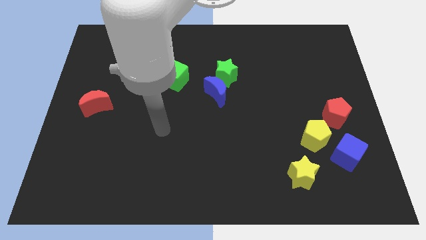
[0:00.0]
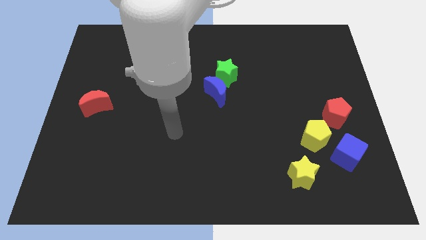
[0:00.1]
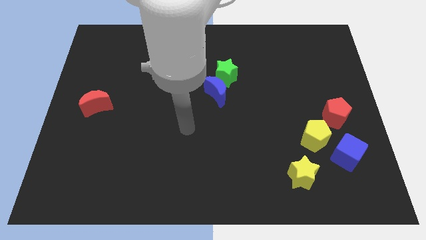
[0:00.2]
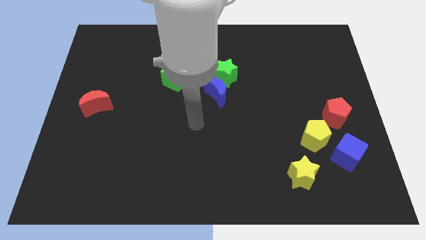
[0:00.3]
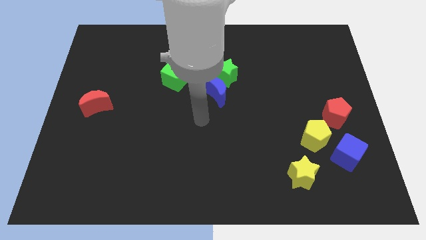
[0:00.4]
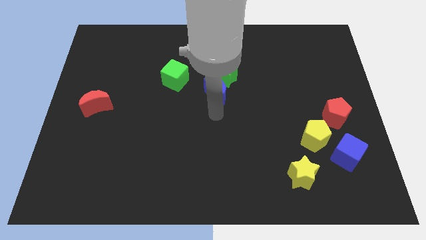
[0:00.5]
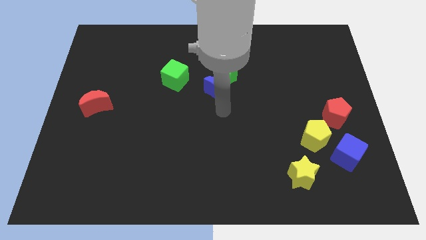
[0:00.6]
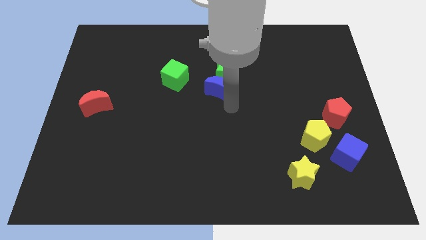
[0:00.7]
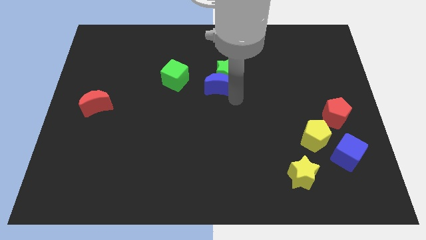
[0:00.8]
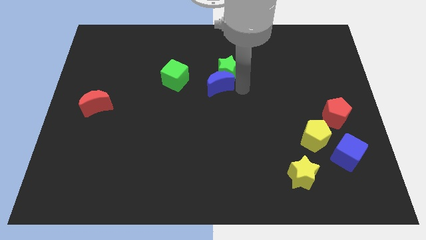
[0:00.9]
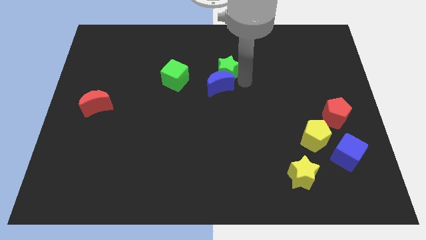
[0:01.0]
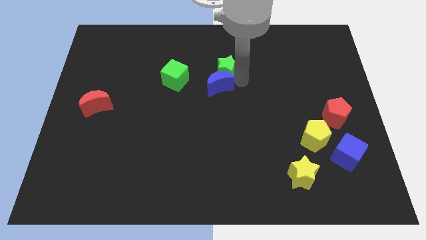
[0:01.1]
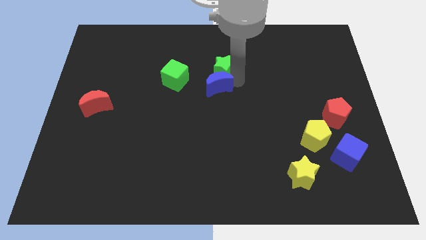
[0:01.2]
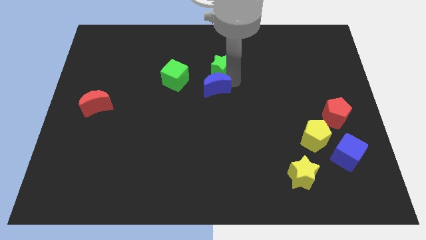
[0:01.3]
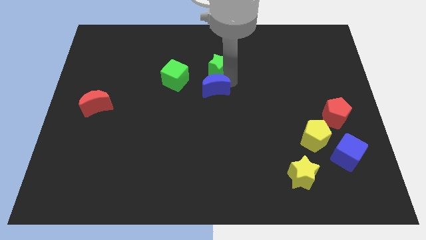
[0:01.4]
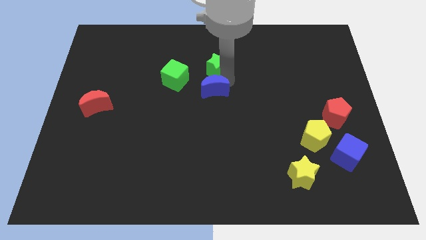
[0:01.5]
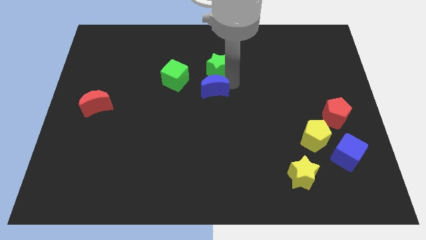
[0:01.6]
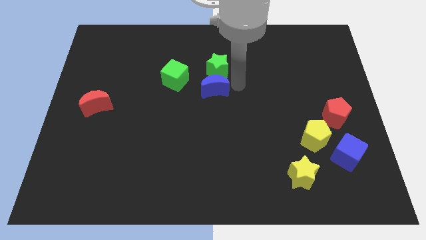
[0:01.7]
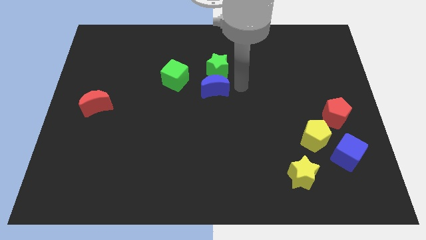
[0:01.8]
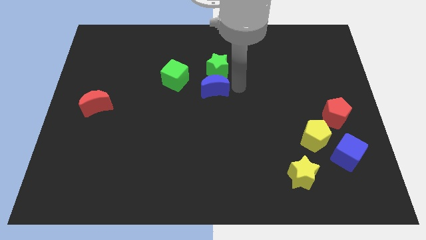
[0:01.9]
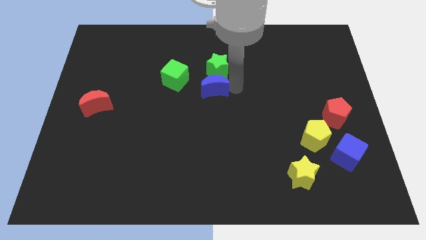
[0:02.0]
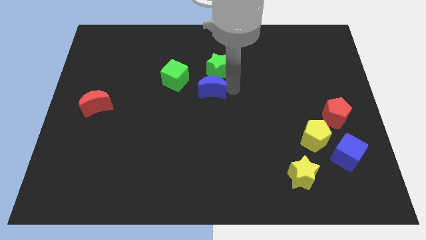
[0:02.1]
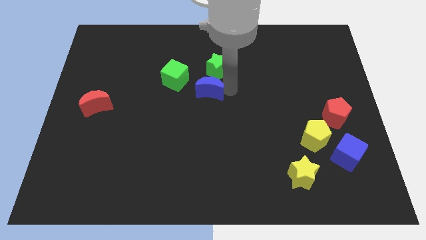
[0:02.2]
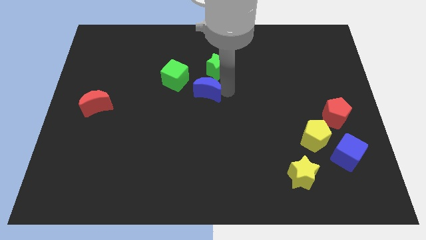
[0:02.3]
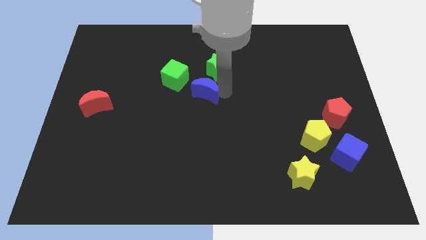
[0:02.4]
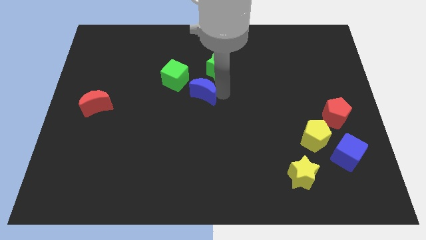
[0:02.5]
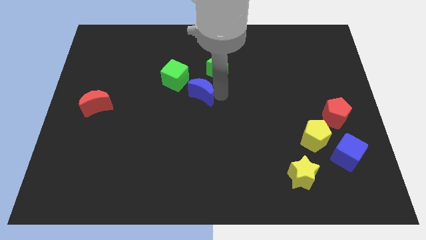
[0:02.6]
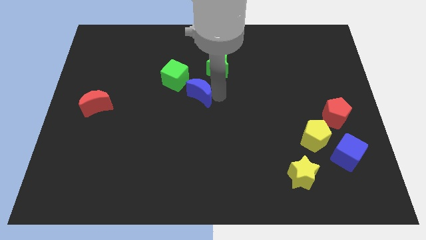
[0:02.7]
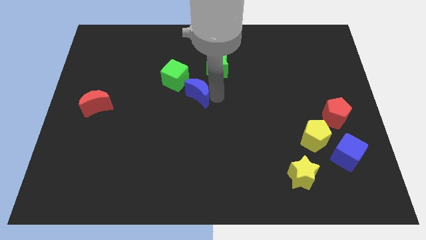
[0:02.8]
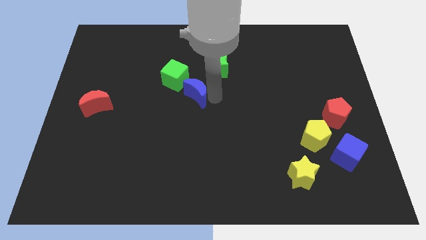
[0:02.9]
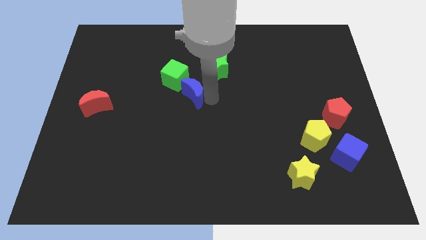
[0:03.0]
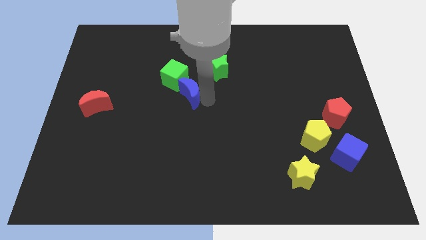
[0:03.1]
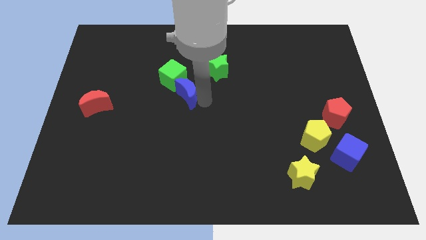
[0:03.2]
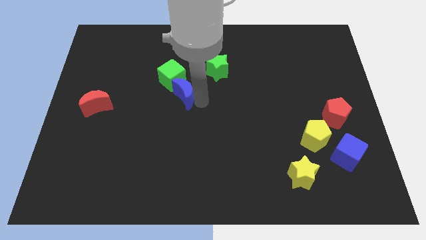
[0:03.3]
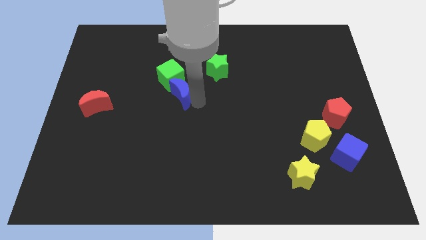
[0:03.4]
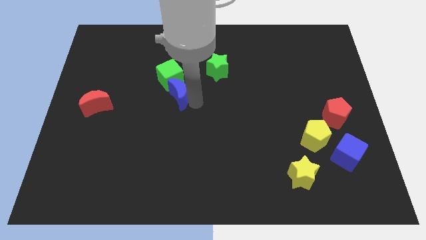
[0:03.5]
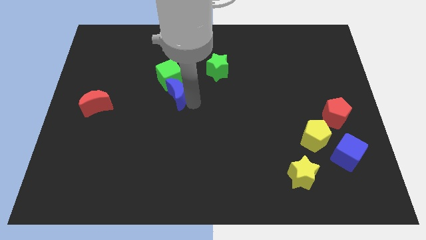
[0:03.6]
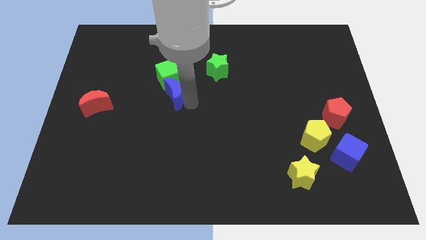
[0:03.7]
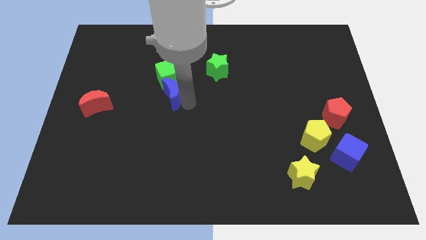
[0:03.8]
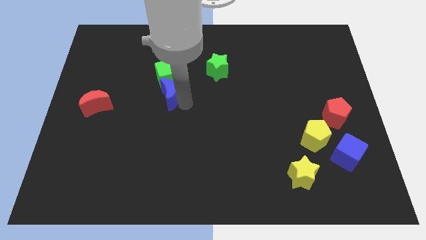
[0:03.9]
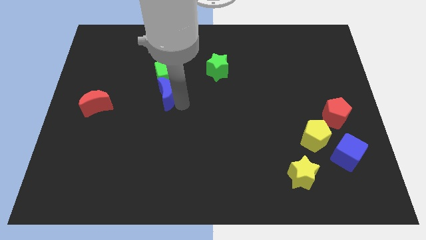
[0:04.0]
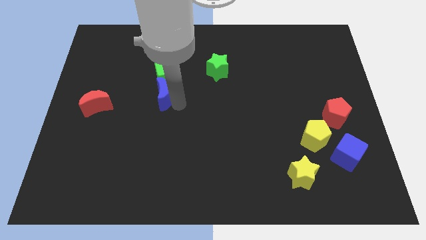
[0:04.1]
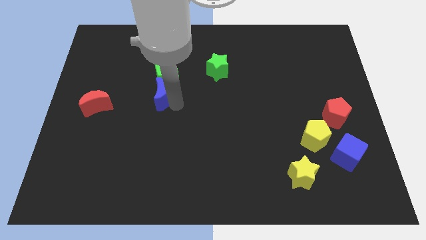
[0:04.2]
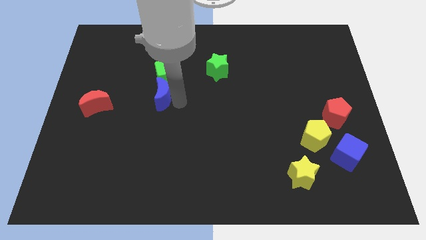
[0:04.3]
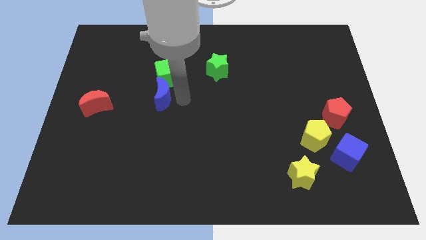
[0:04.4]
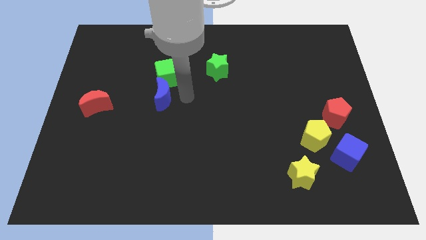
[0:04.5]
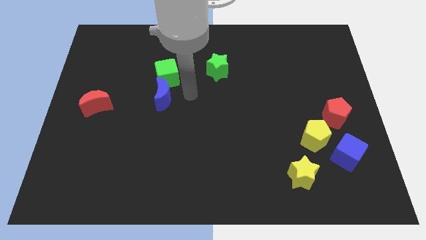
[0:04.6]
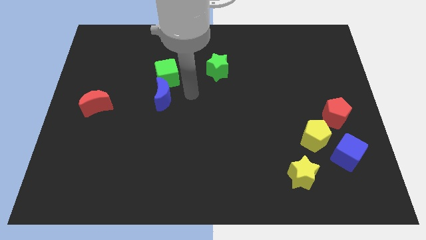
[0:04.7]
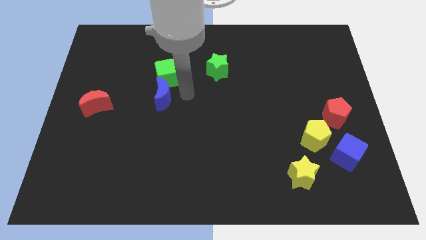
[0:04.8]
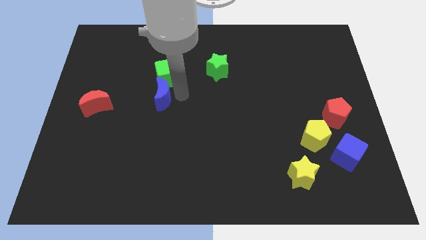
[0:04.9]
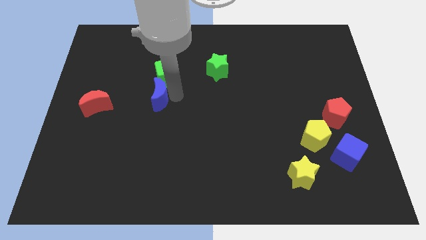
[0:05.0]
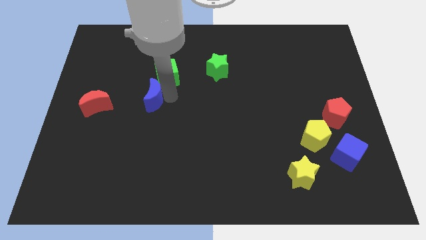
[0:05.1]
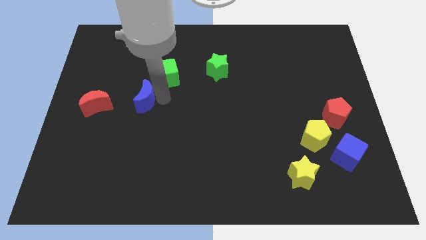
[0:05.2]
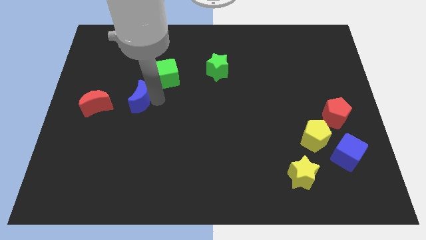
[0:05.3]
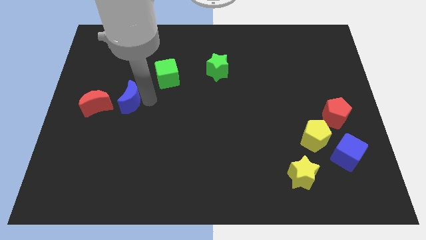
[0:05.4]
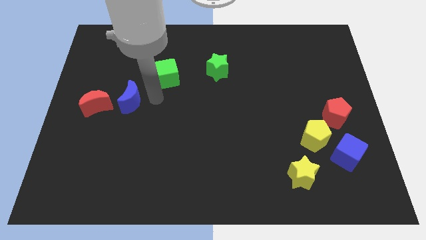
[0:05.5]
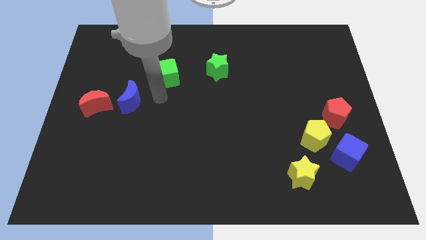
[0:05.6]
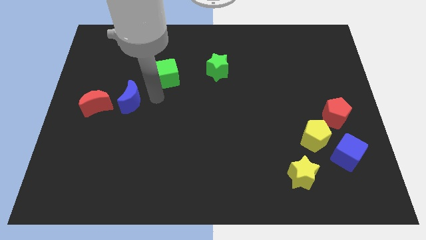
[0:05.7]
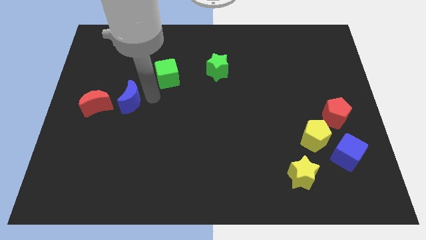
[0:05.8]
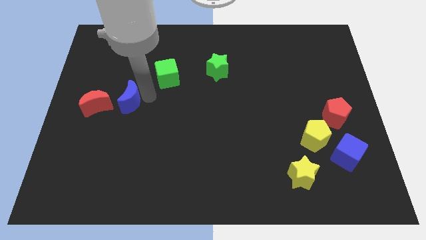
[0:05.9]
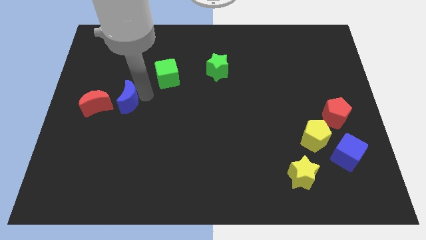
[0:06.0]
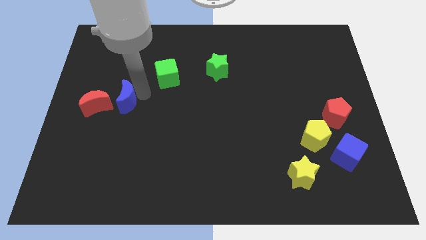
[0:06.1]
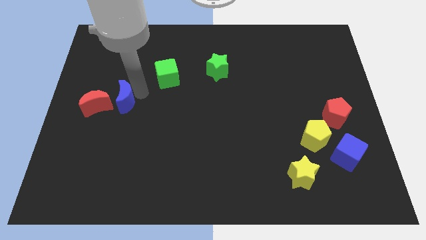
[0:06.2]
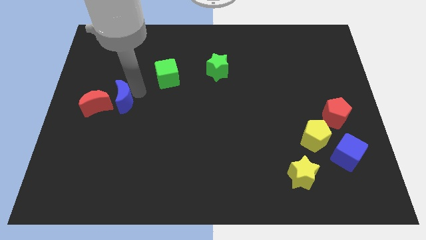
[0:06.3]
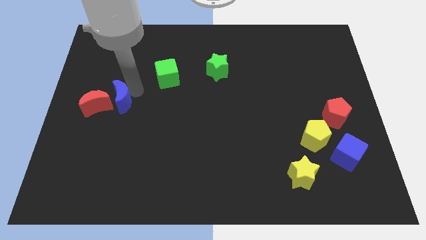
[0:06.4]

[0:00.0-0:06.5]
put the blue moon to the red moon
